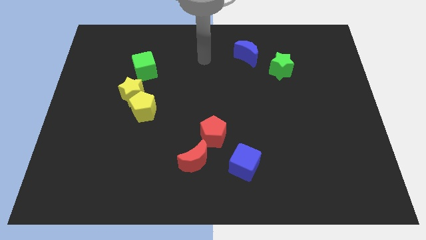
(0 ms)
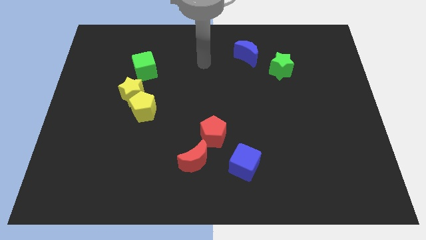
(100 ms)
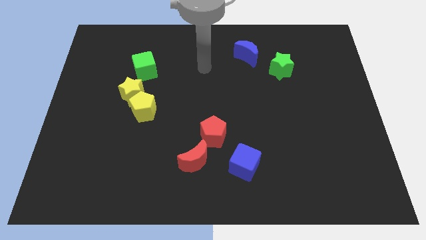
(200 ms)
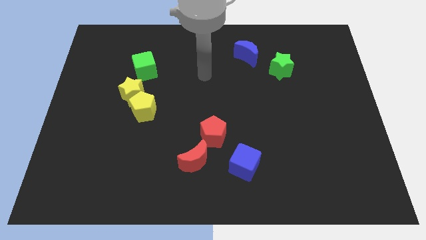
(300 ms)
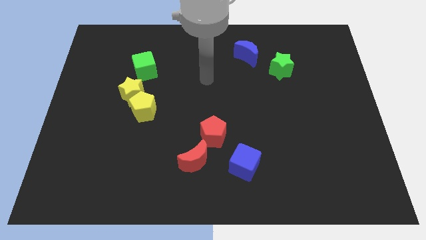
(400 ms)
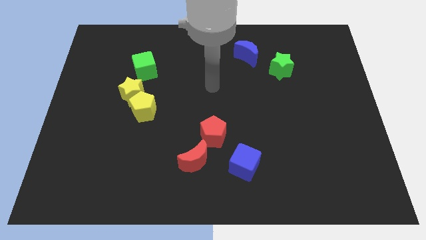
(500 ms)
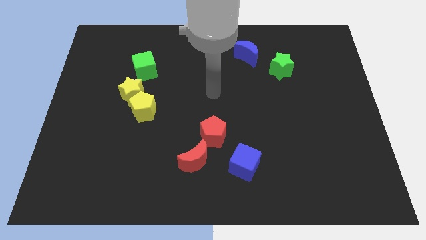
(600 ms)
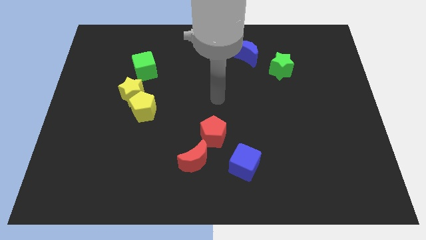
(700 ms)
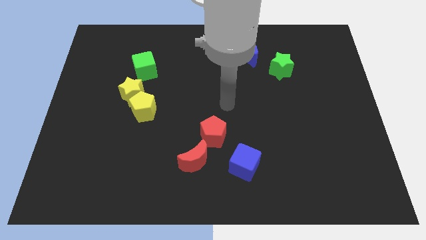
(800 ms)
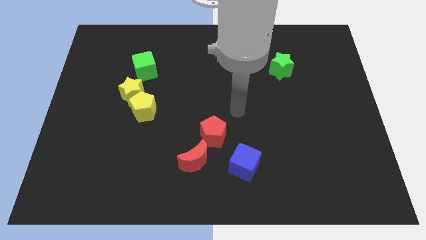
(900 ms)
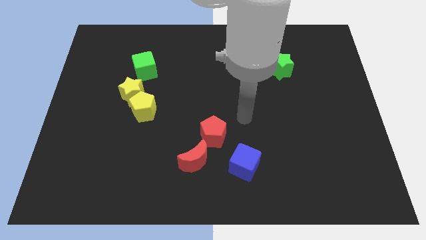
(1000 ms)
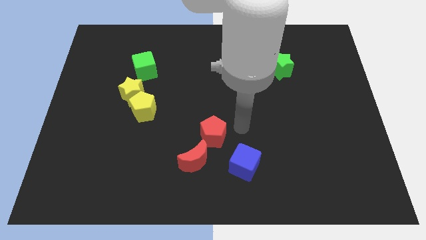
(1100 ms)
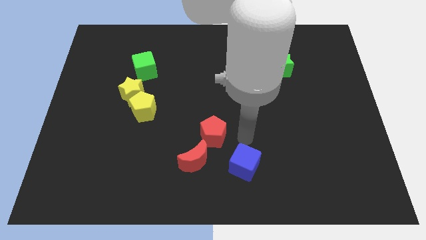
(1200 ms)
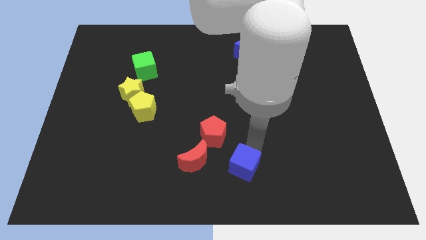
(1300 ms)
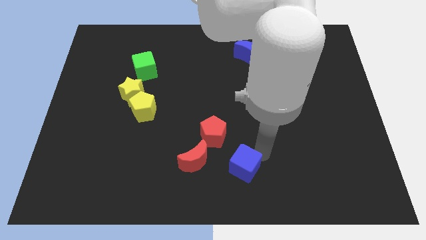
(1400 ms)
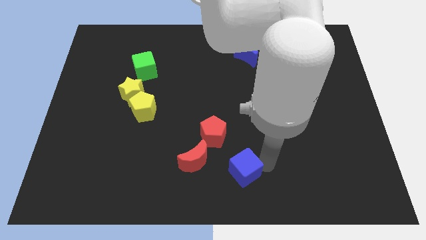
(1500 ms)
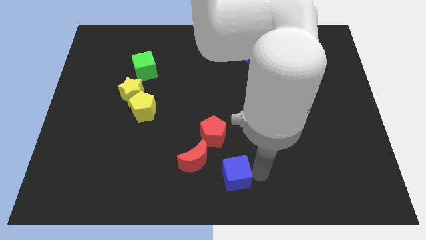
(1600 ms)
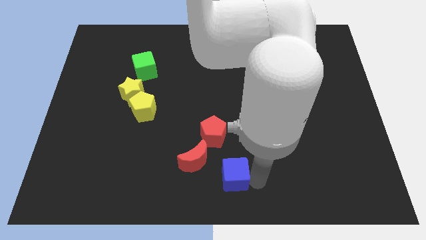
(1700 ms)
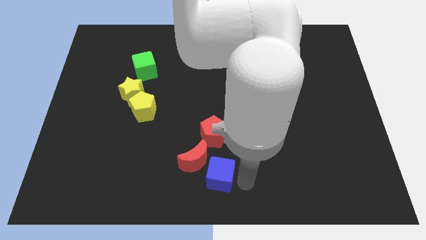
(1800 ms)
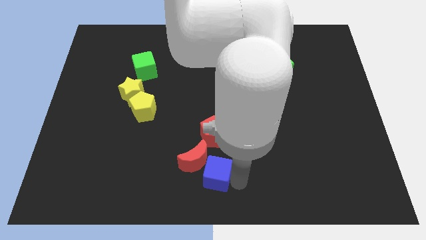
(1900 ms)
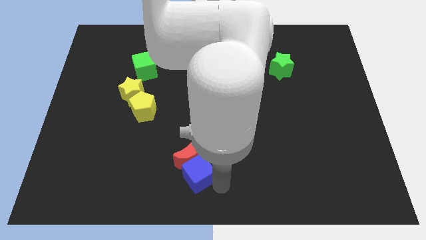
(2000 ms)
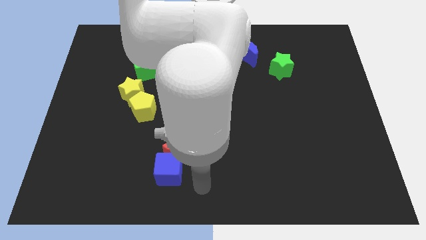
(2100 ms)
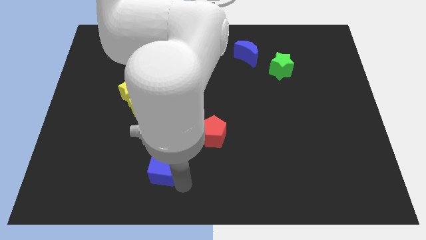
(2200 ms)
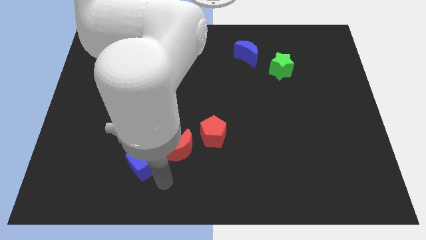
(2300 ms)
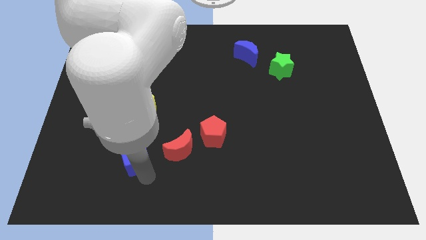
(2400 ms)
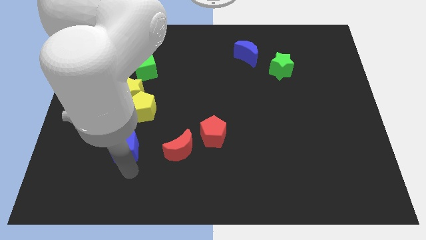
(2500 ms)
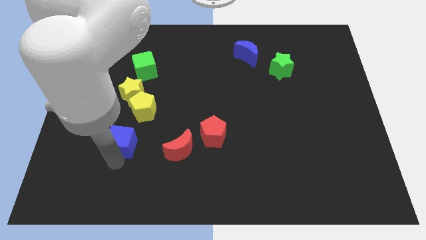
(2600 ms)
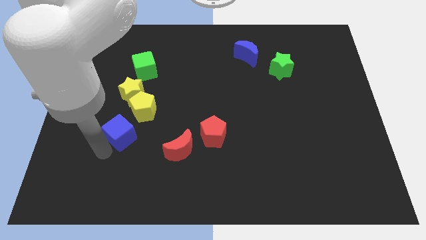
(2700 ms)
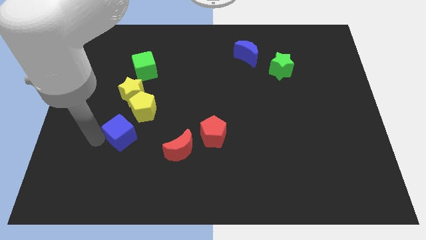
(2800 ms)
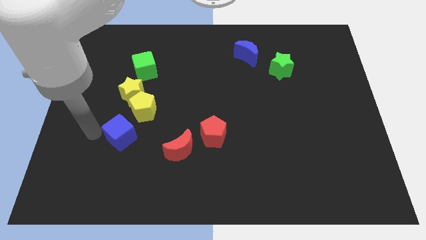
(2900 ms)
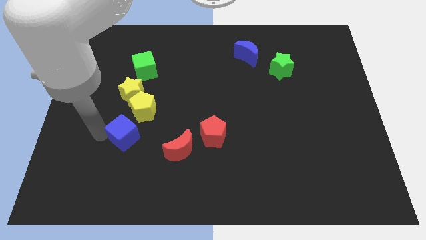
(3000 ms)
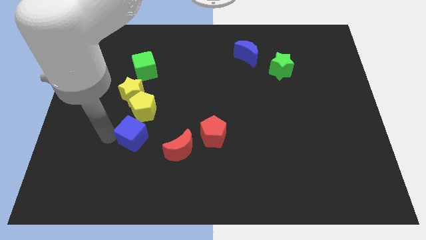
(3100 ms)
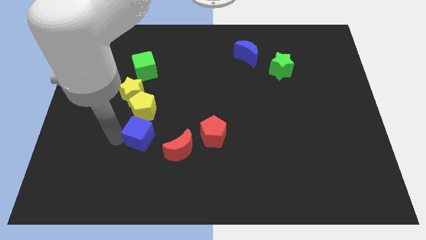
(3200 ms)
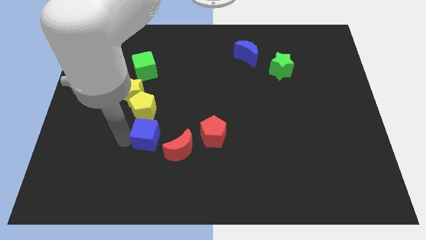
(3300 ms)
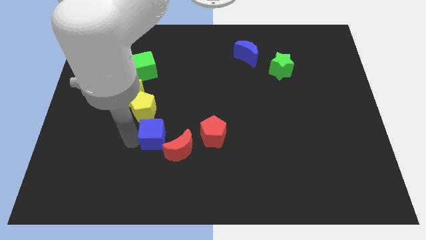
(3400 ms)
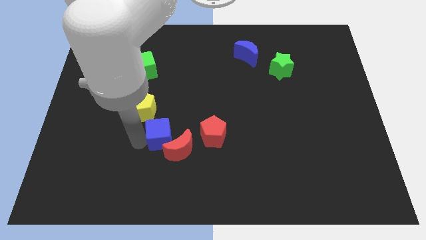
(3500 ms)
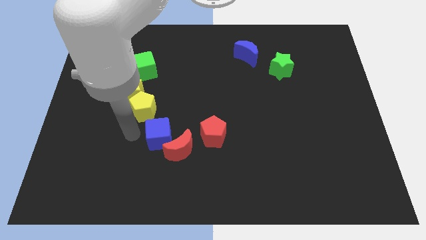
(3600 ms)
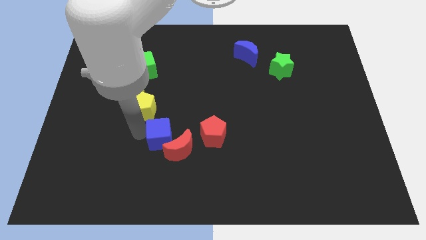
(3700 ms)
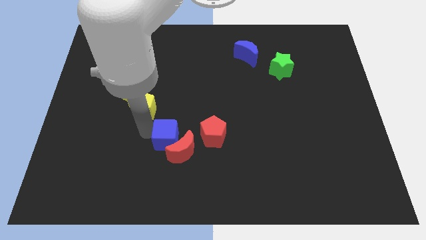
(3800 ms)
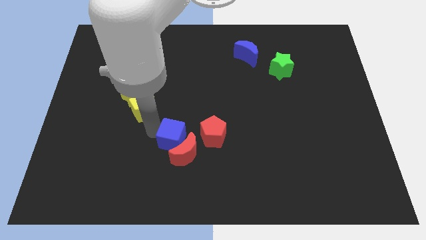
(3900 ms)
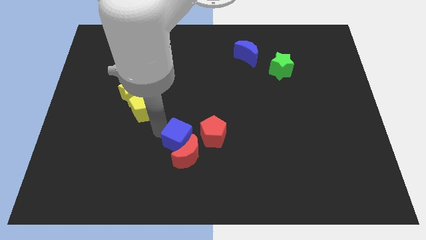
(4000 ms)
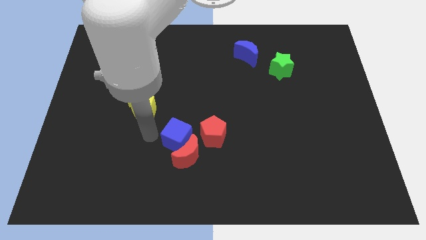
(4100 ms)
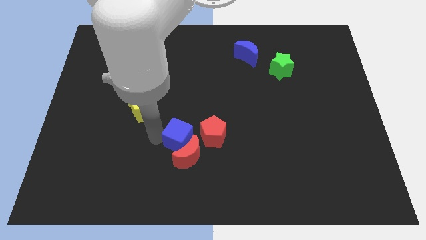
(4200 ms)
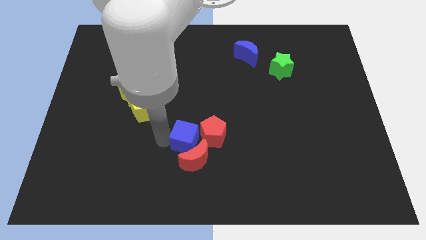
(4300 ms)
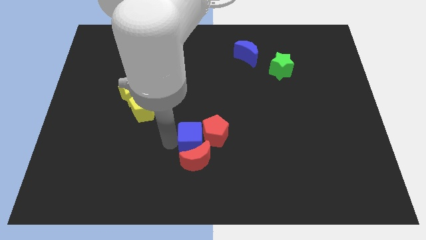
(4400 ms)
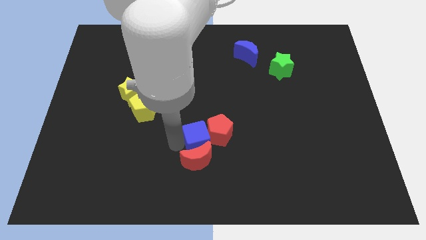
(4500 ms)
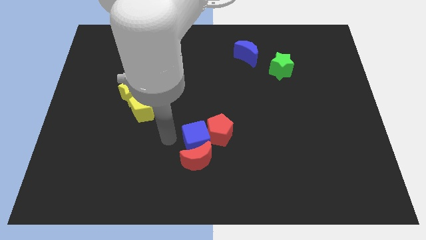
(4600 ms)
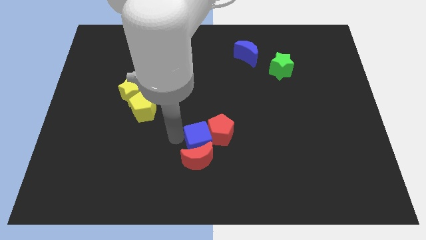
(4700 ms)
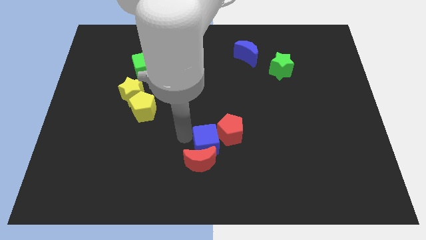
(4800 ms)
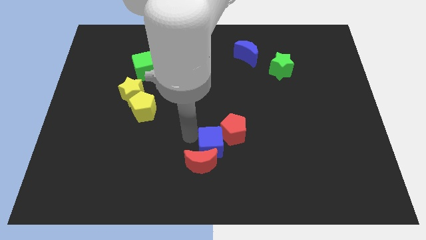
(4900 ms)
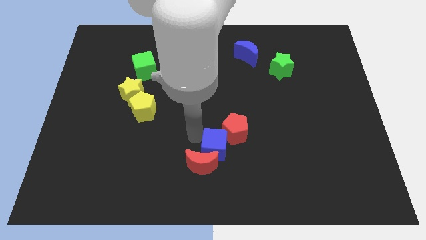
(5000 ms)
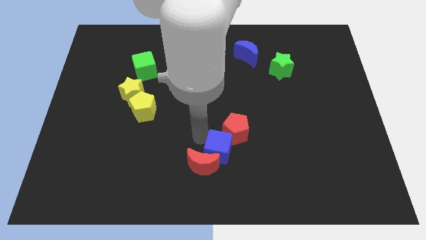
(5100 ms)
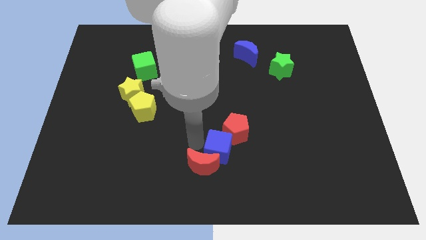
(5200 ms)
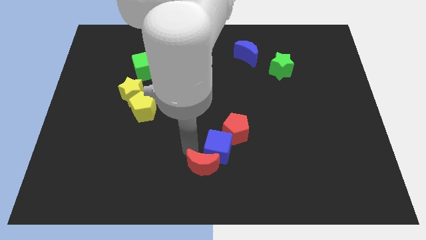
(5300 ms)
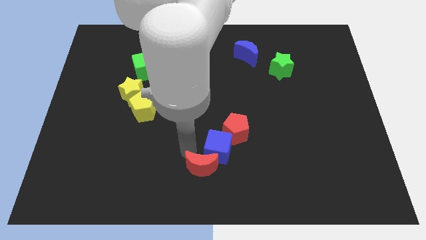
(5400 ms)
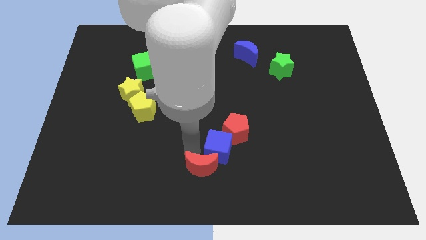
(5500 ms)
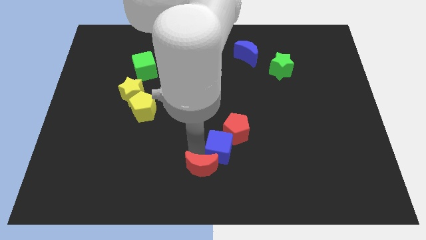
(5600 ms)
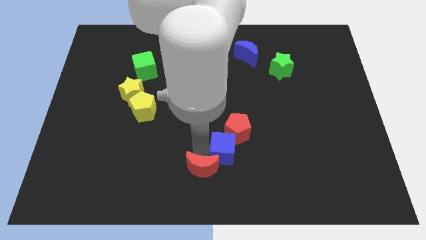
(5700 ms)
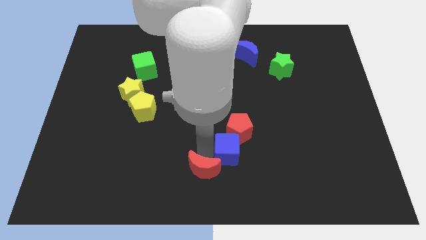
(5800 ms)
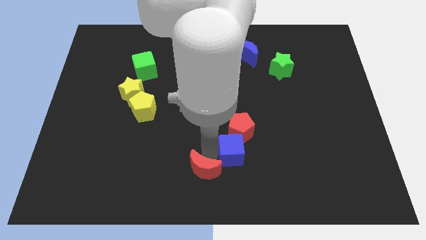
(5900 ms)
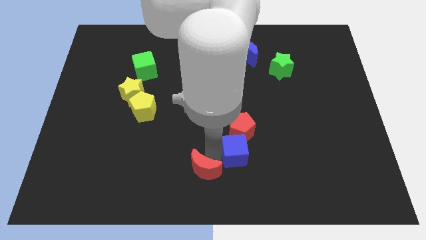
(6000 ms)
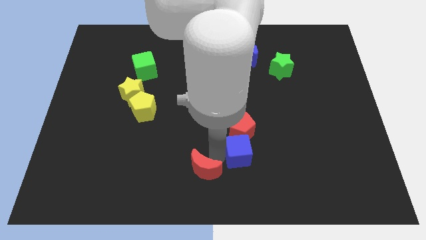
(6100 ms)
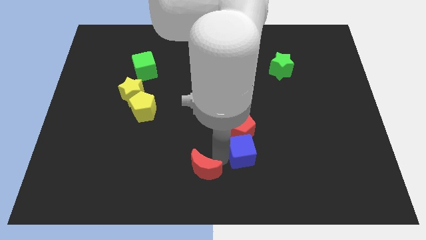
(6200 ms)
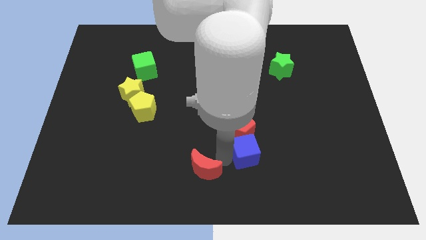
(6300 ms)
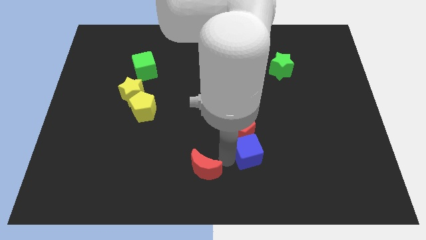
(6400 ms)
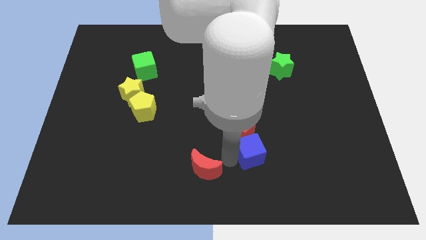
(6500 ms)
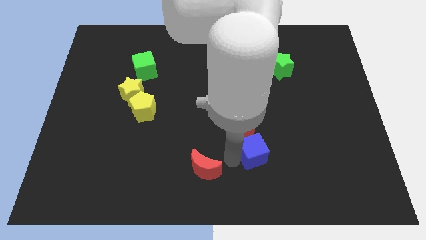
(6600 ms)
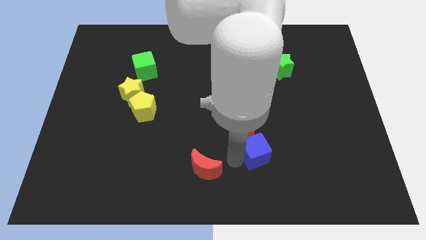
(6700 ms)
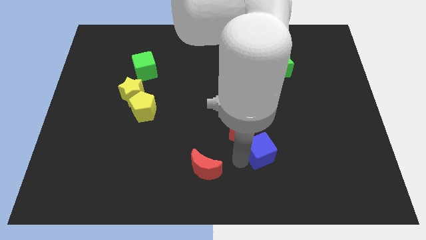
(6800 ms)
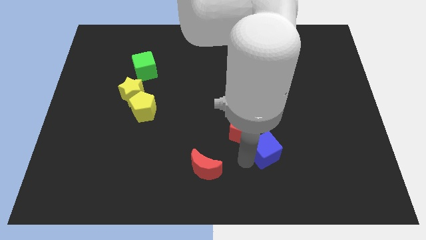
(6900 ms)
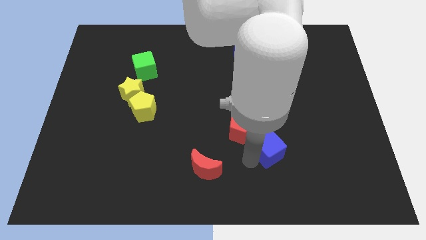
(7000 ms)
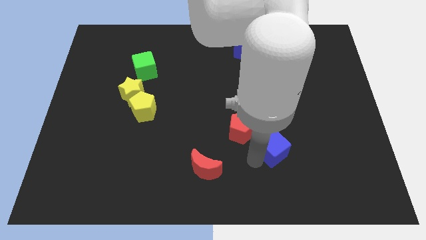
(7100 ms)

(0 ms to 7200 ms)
slide the blue cube upwards and right diagonally somewhat

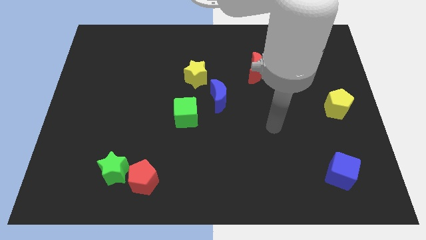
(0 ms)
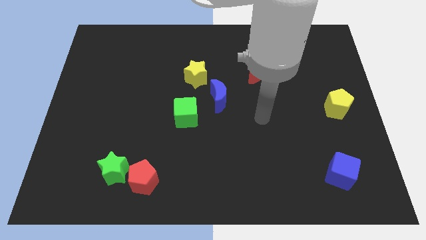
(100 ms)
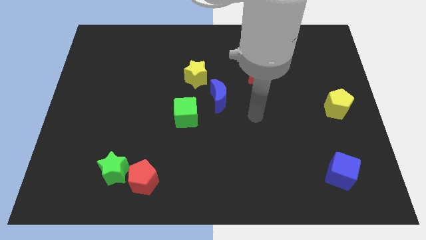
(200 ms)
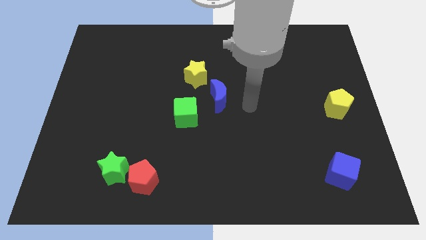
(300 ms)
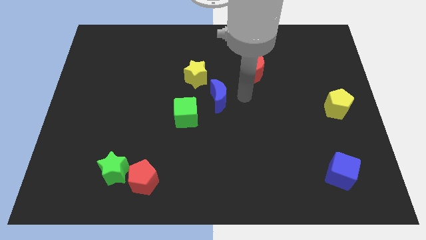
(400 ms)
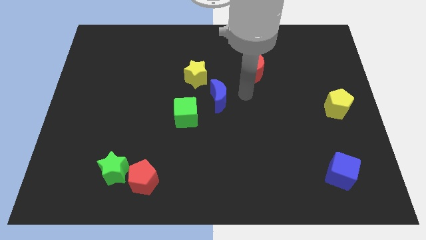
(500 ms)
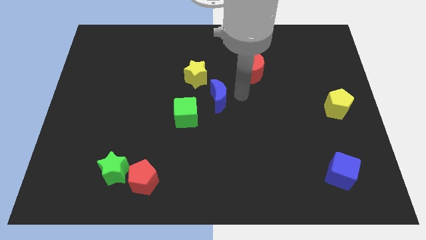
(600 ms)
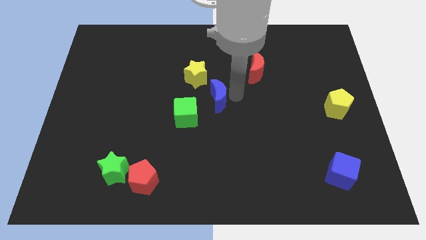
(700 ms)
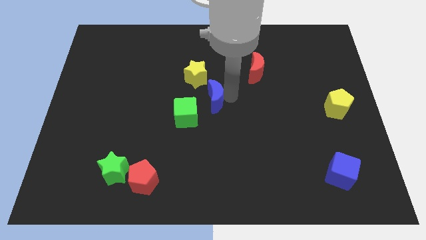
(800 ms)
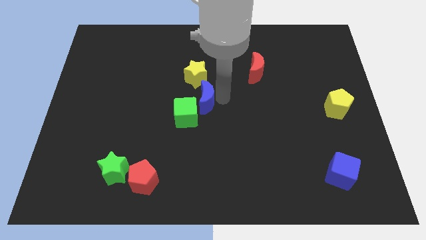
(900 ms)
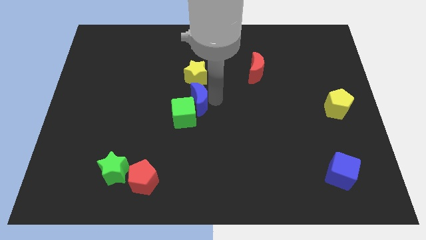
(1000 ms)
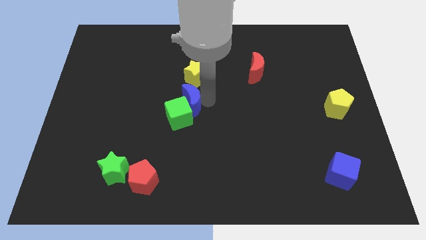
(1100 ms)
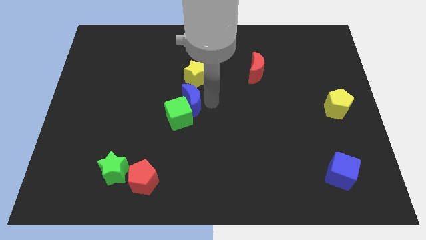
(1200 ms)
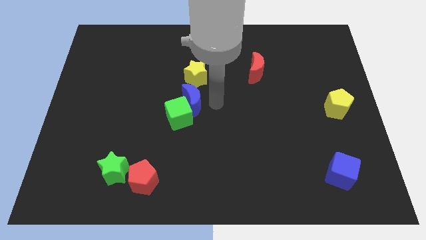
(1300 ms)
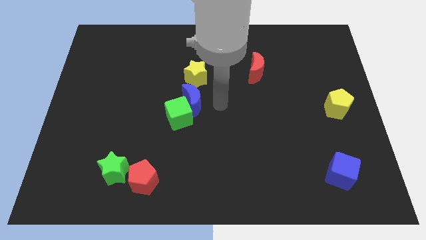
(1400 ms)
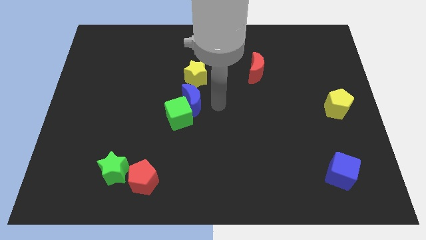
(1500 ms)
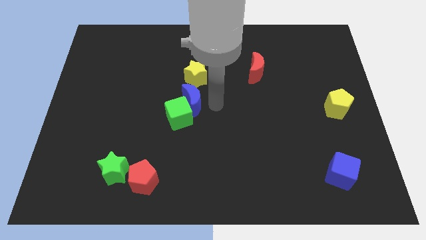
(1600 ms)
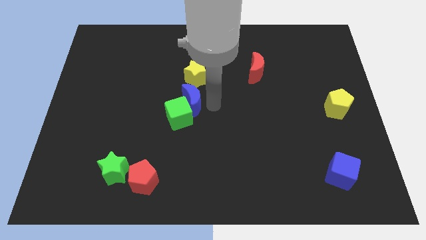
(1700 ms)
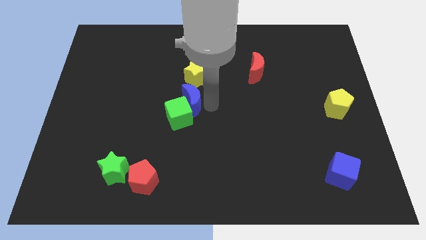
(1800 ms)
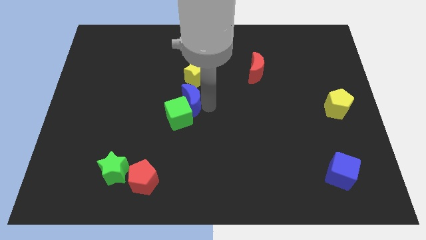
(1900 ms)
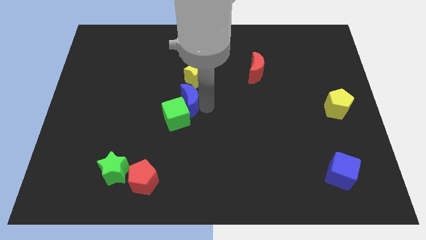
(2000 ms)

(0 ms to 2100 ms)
slide the blue moon a little to the left
